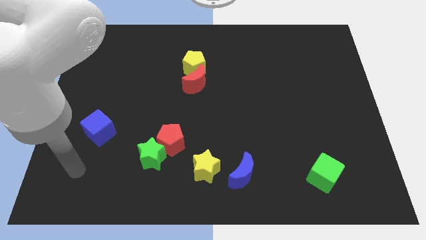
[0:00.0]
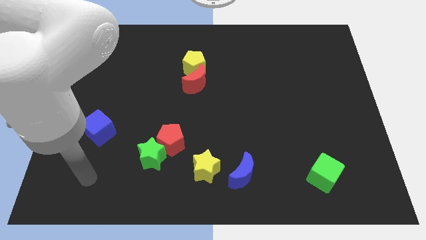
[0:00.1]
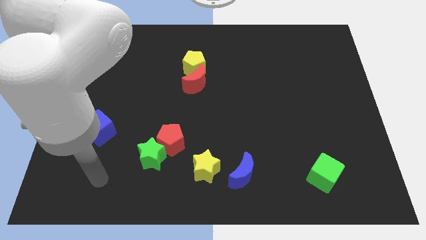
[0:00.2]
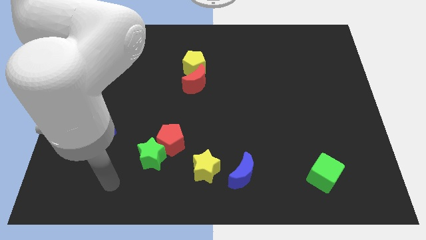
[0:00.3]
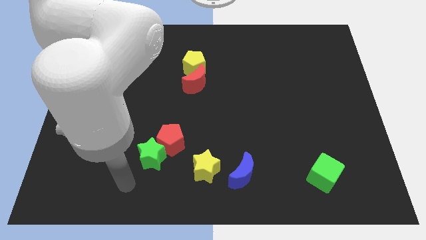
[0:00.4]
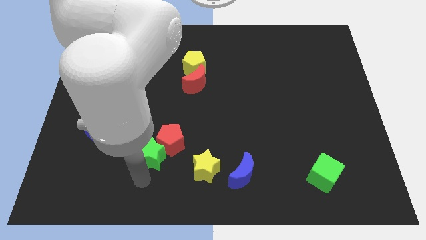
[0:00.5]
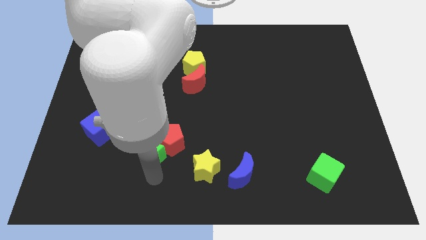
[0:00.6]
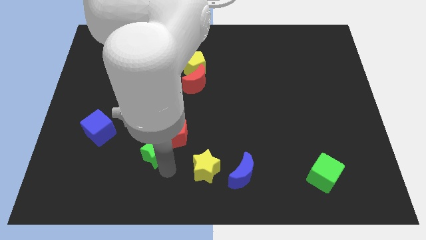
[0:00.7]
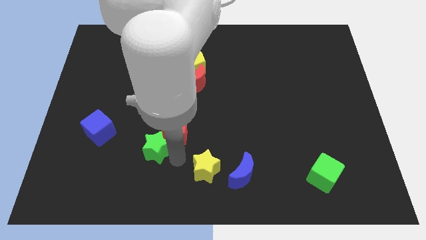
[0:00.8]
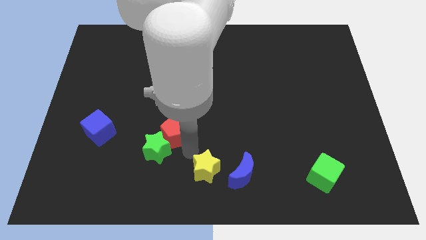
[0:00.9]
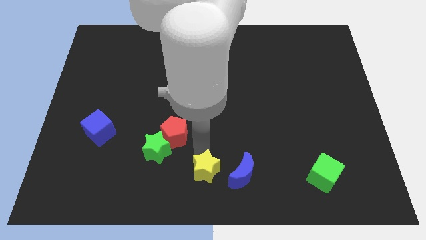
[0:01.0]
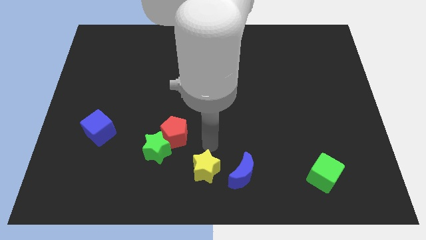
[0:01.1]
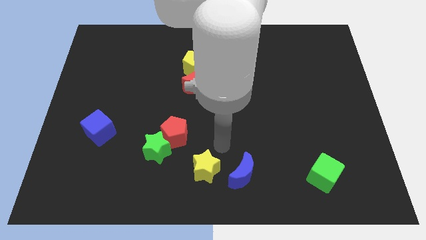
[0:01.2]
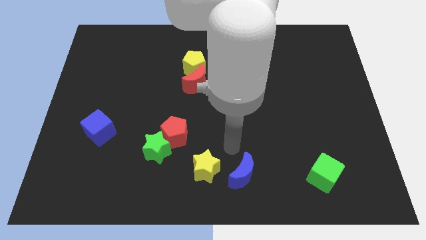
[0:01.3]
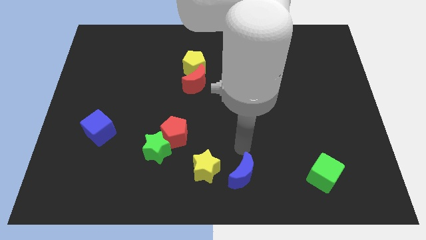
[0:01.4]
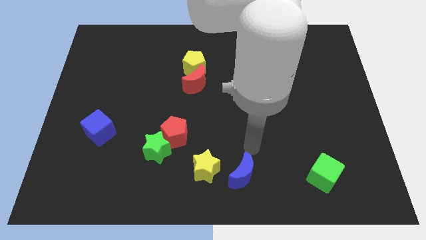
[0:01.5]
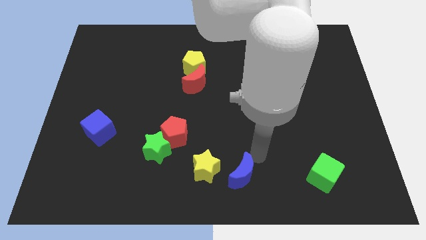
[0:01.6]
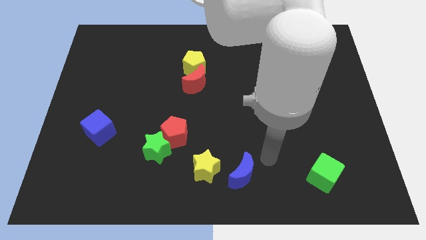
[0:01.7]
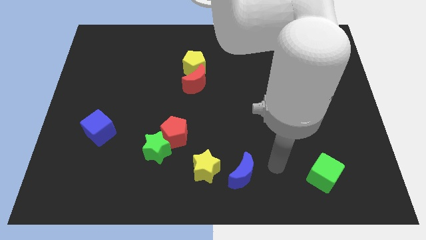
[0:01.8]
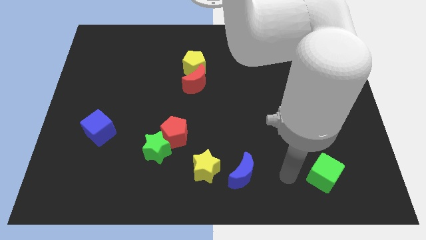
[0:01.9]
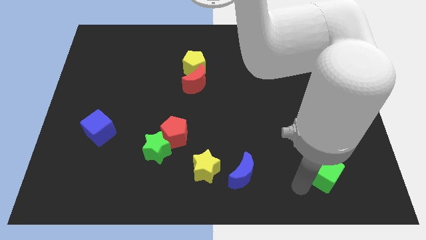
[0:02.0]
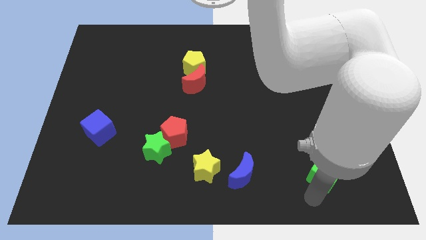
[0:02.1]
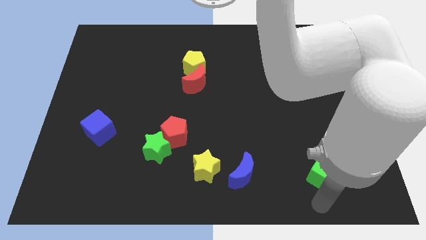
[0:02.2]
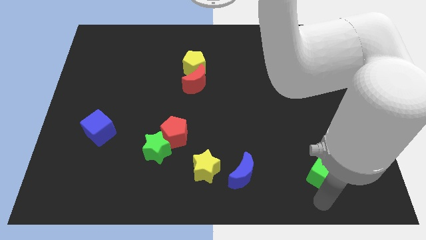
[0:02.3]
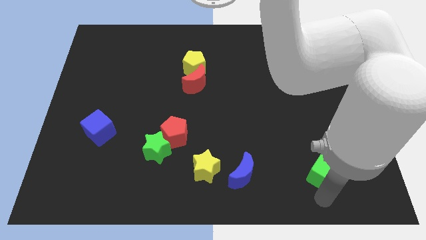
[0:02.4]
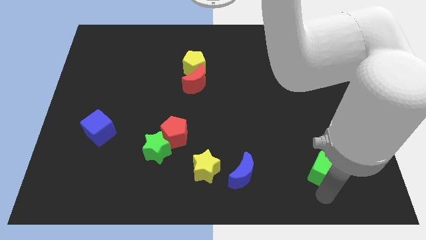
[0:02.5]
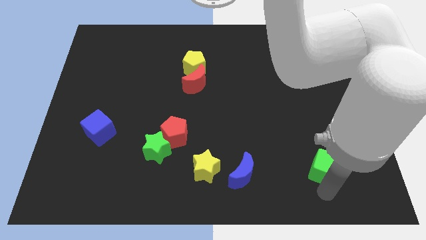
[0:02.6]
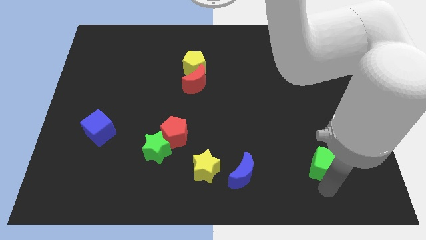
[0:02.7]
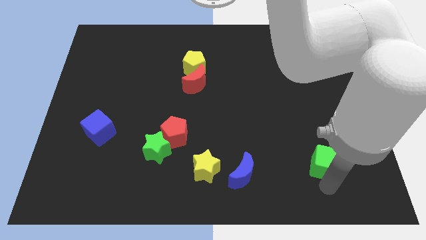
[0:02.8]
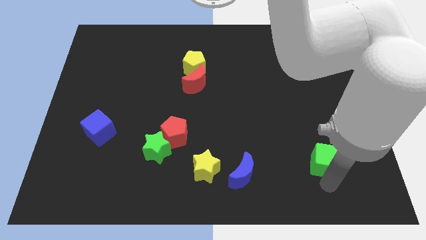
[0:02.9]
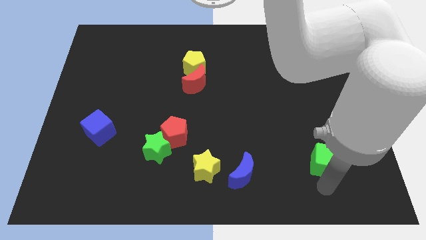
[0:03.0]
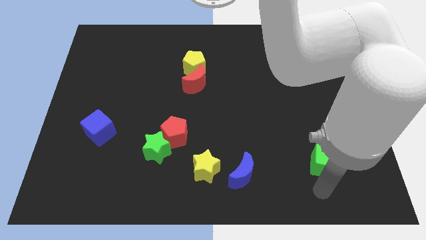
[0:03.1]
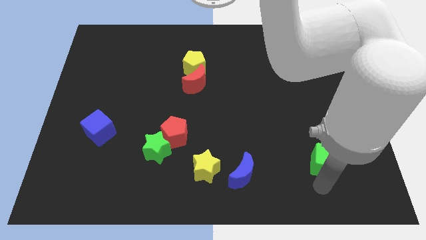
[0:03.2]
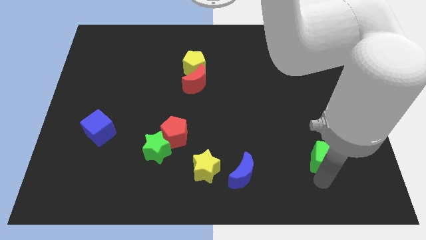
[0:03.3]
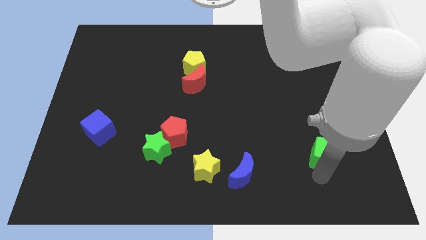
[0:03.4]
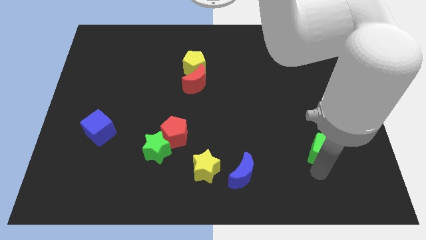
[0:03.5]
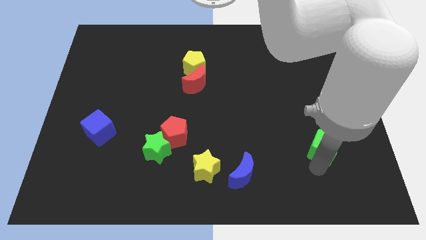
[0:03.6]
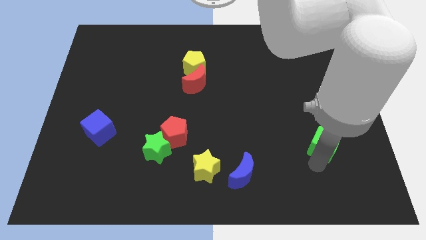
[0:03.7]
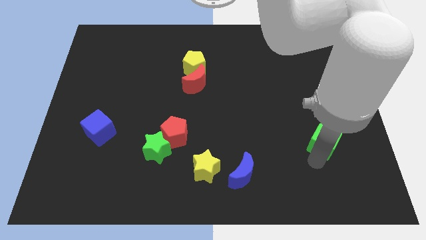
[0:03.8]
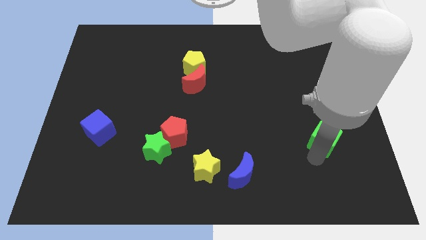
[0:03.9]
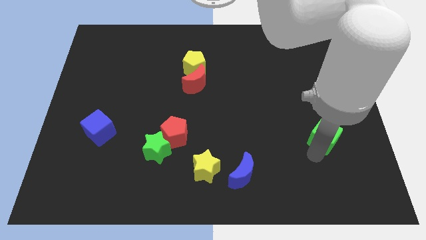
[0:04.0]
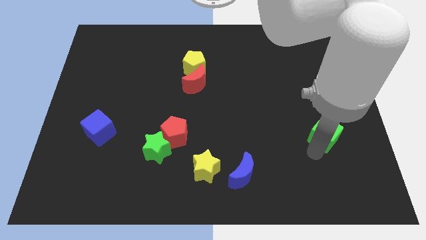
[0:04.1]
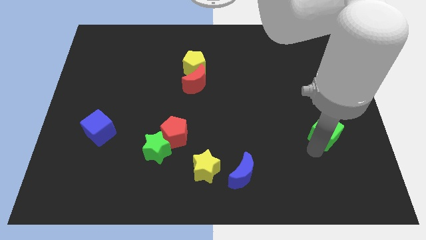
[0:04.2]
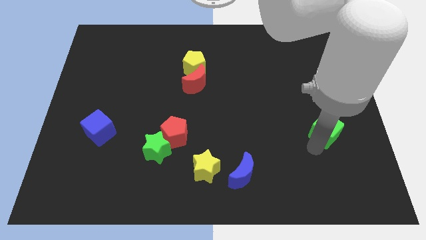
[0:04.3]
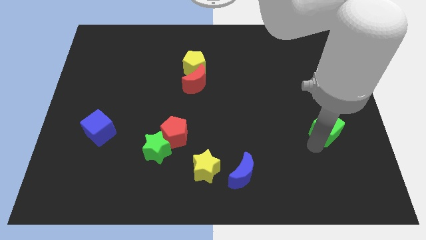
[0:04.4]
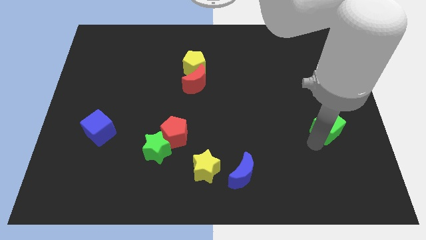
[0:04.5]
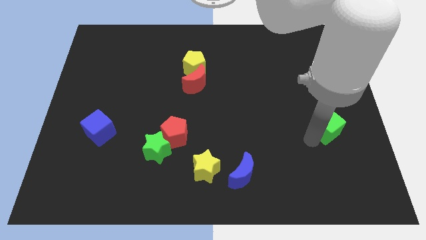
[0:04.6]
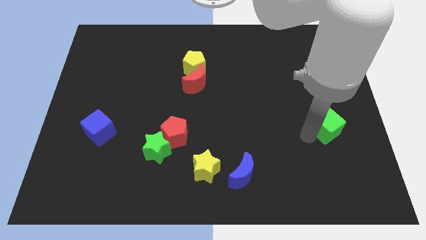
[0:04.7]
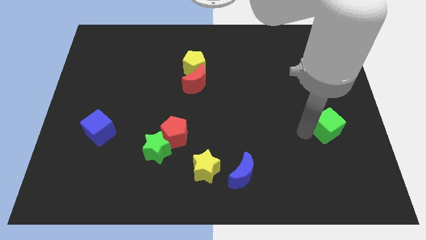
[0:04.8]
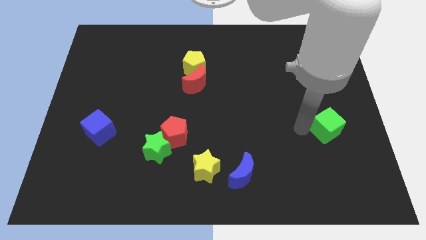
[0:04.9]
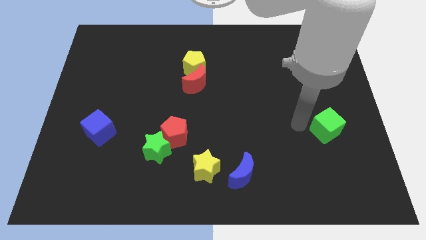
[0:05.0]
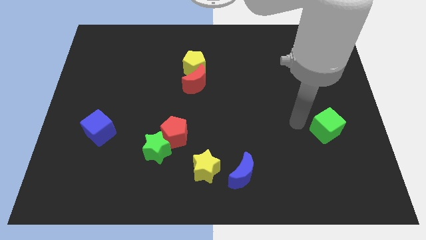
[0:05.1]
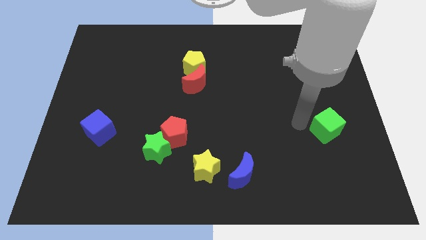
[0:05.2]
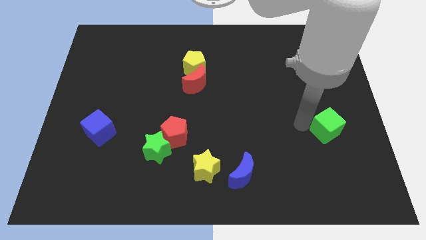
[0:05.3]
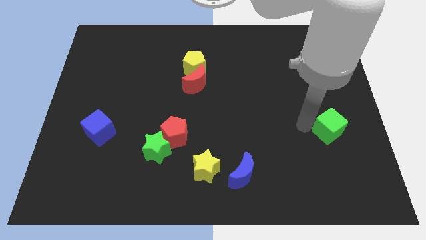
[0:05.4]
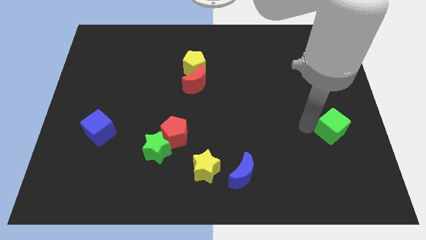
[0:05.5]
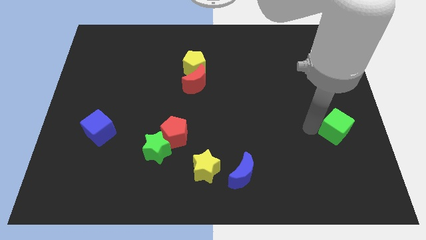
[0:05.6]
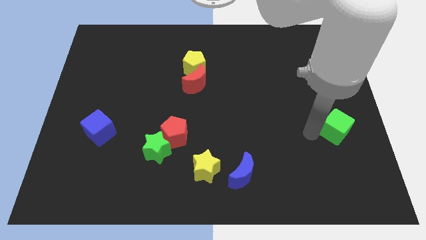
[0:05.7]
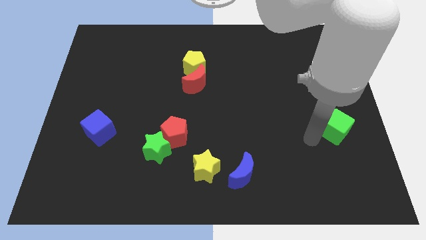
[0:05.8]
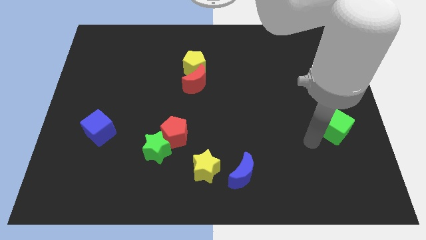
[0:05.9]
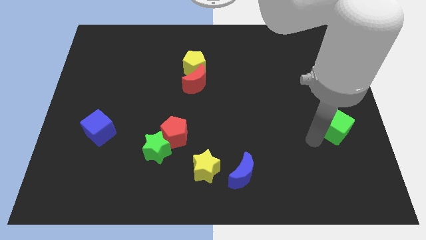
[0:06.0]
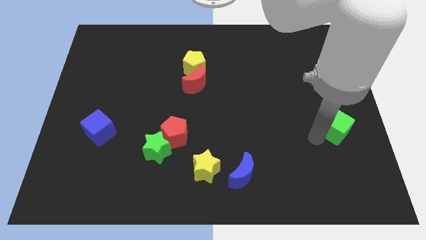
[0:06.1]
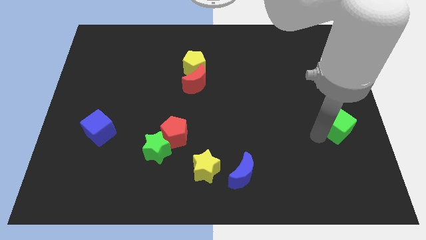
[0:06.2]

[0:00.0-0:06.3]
slide the green cube to the right side

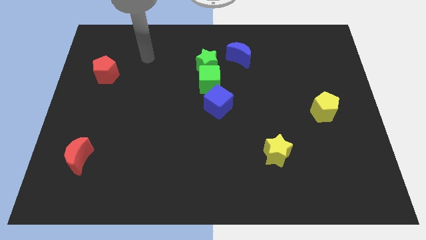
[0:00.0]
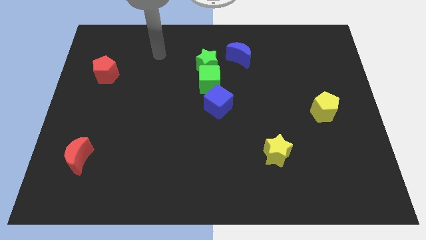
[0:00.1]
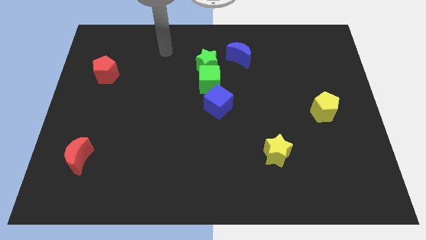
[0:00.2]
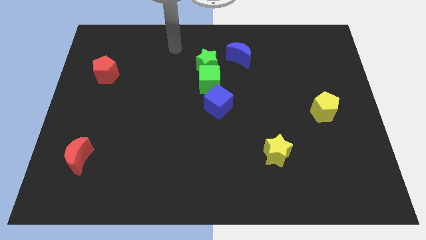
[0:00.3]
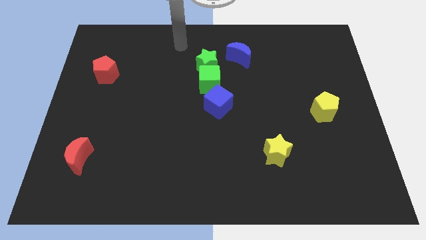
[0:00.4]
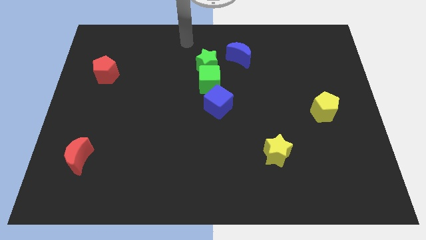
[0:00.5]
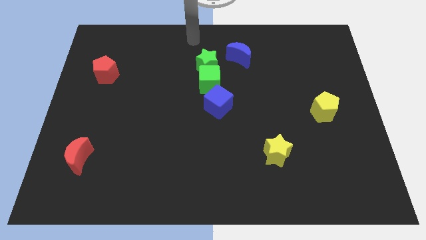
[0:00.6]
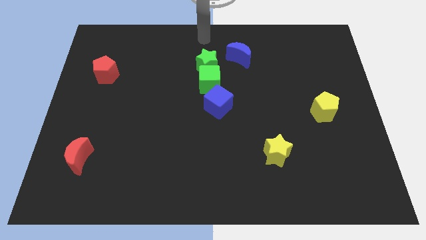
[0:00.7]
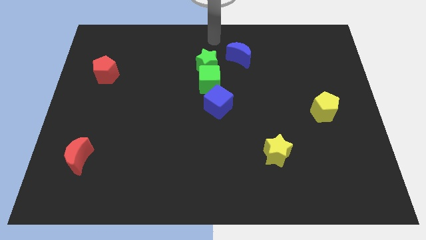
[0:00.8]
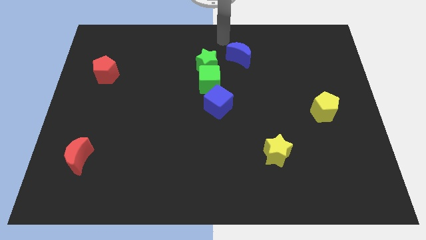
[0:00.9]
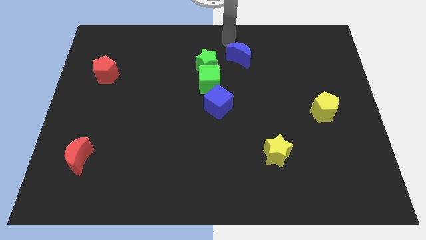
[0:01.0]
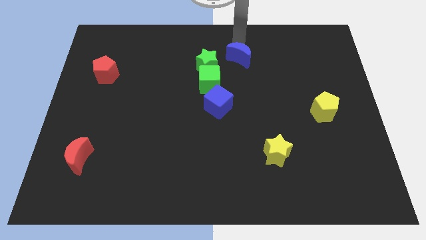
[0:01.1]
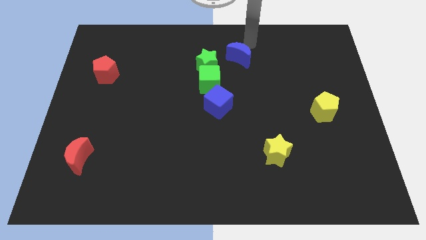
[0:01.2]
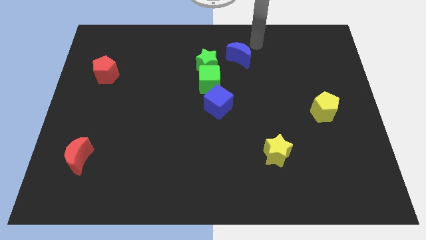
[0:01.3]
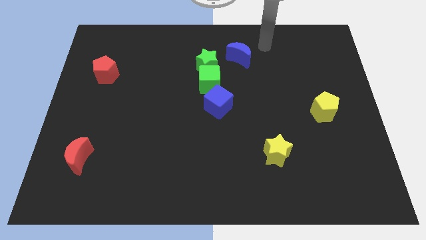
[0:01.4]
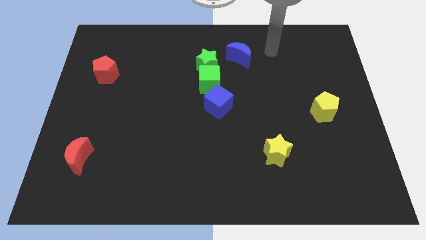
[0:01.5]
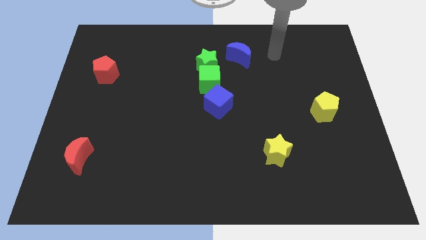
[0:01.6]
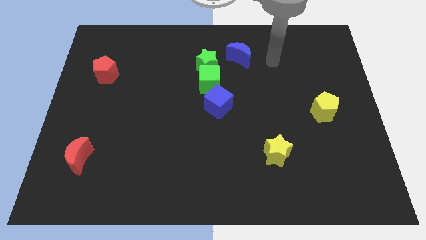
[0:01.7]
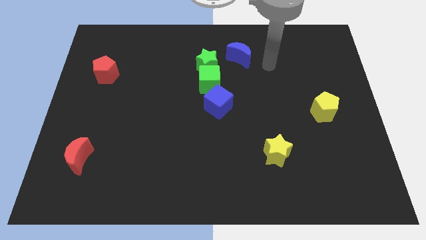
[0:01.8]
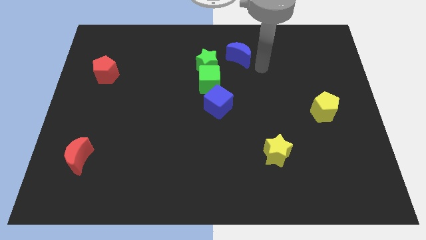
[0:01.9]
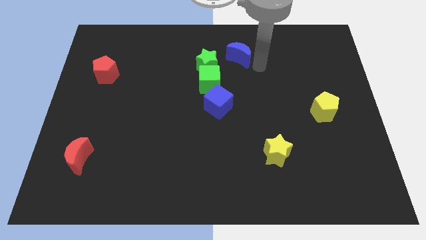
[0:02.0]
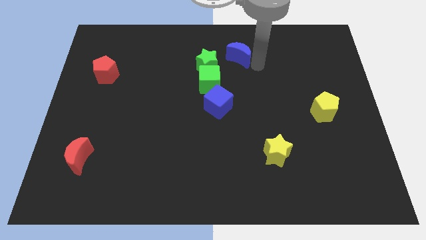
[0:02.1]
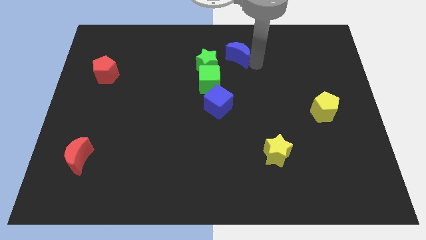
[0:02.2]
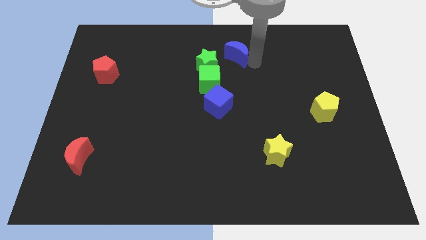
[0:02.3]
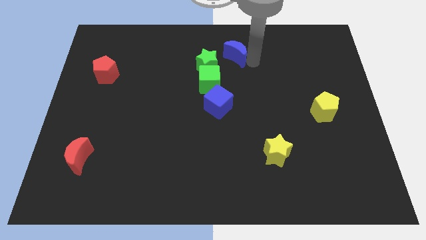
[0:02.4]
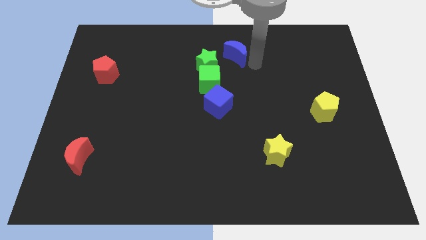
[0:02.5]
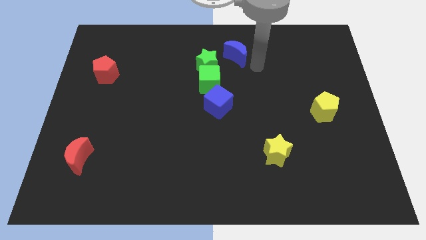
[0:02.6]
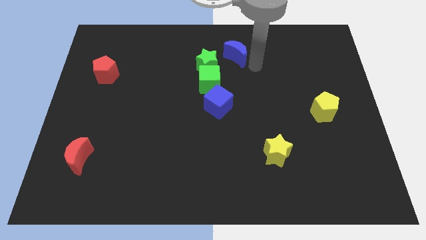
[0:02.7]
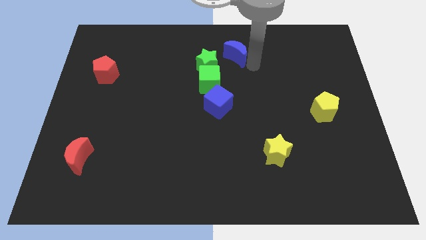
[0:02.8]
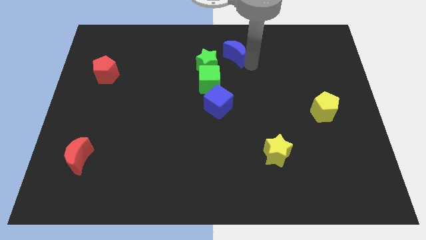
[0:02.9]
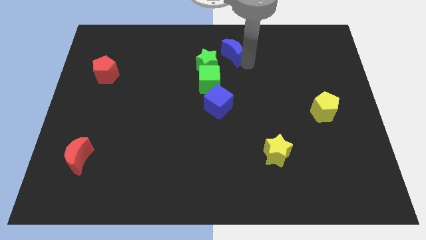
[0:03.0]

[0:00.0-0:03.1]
move the blue moon to the top side
